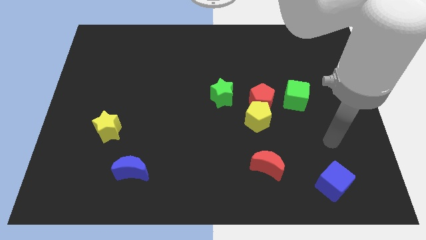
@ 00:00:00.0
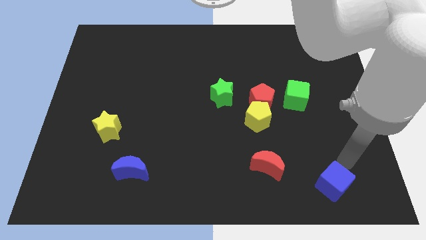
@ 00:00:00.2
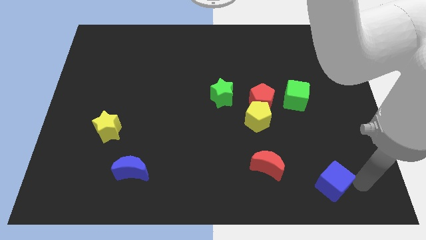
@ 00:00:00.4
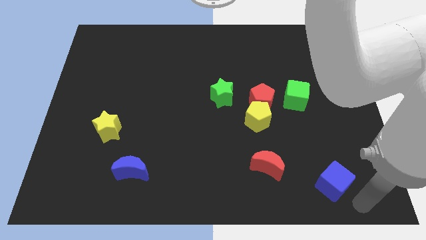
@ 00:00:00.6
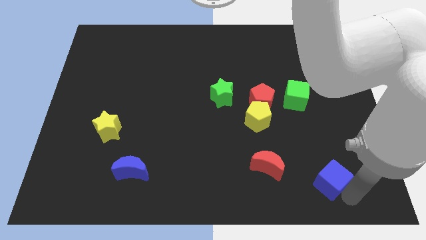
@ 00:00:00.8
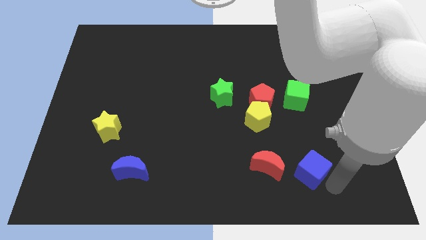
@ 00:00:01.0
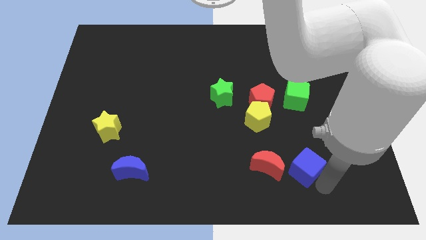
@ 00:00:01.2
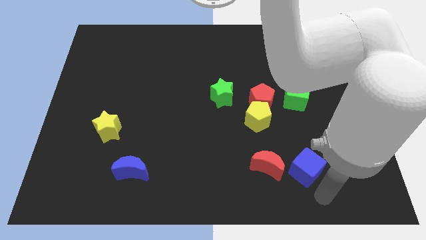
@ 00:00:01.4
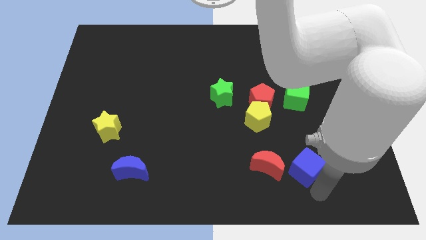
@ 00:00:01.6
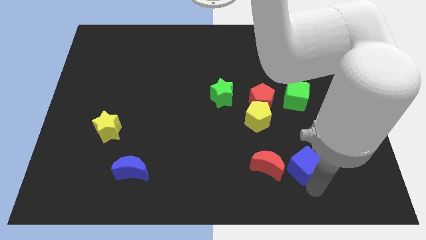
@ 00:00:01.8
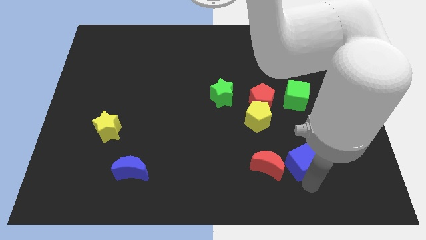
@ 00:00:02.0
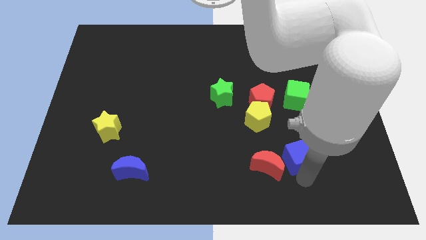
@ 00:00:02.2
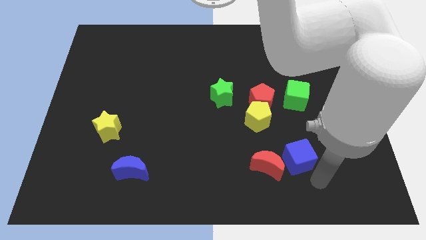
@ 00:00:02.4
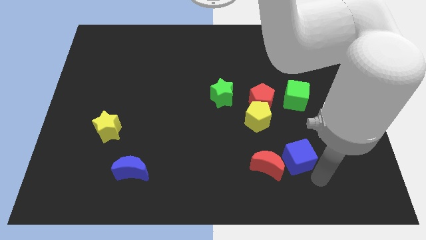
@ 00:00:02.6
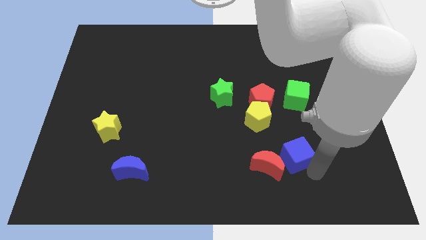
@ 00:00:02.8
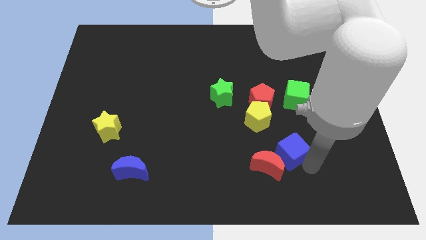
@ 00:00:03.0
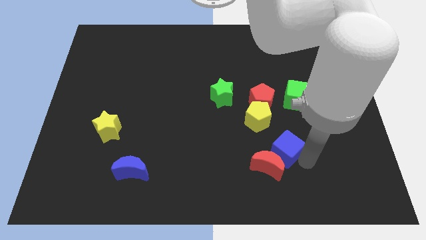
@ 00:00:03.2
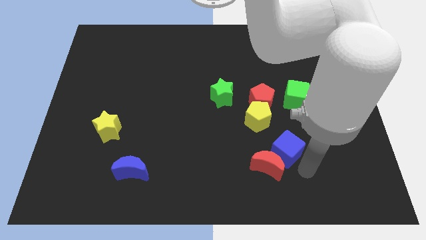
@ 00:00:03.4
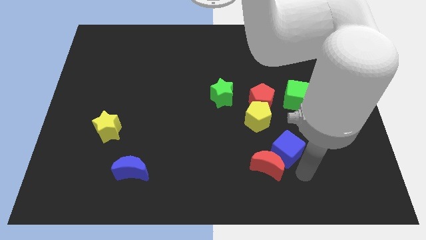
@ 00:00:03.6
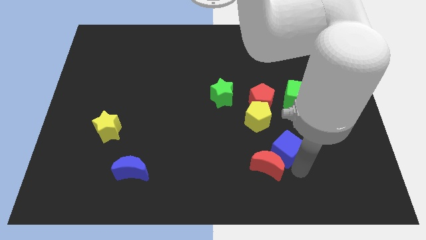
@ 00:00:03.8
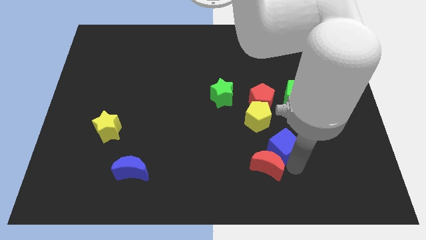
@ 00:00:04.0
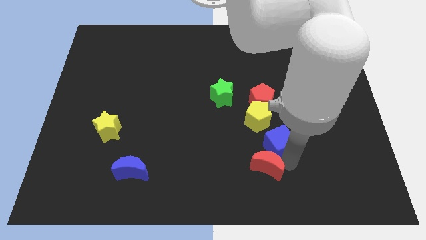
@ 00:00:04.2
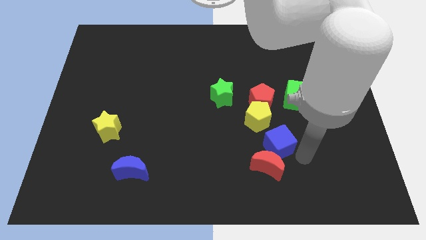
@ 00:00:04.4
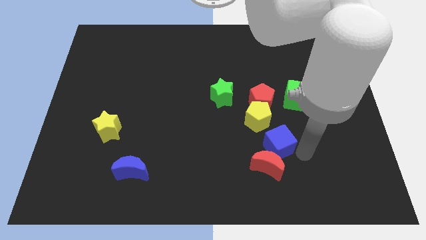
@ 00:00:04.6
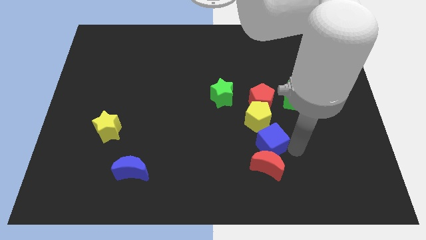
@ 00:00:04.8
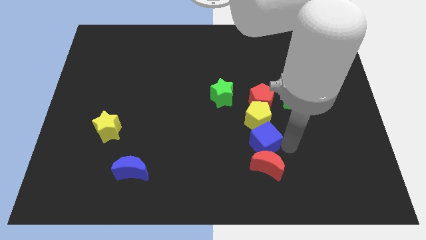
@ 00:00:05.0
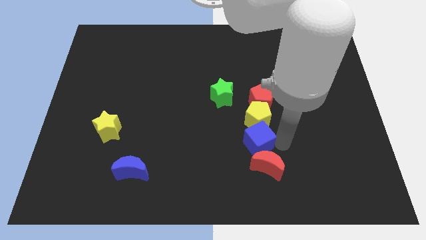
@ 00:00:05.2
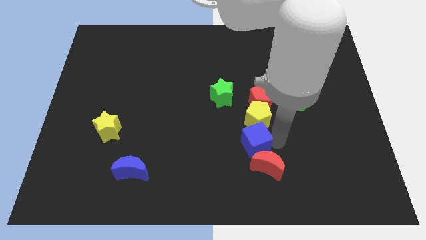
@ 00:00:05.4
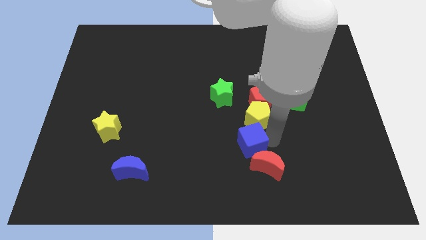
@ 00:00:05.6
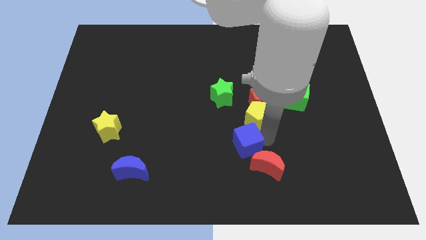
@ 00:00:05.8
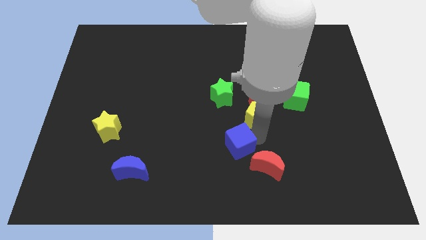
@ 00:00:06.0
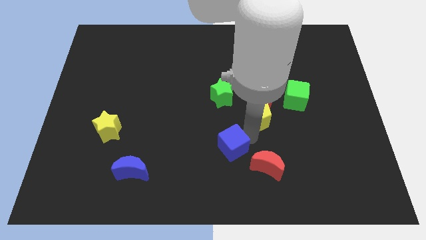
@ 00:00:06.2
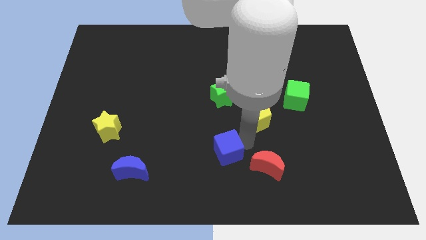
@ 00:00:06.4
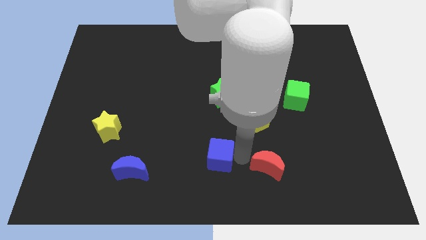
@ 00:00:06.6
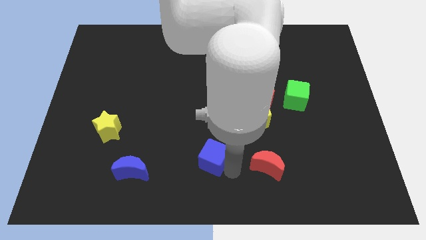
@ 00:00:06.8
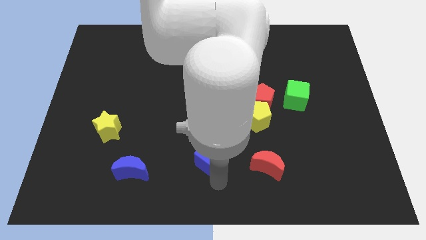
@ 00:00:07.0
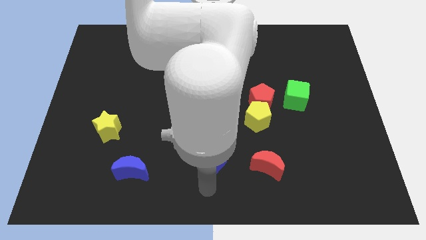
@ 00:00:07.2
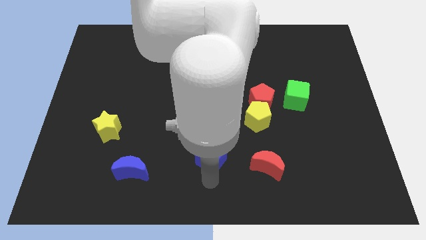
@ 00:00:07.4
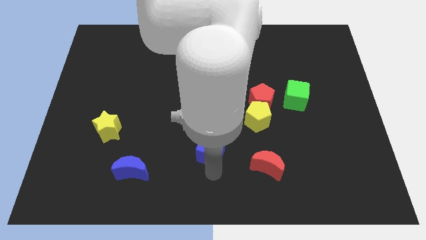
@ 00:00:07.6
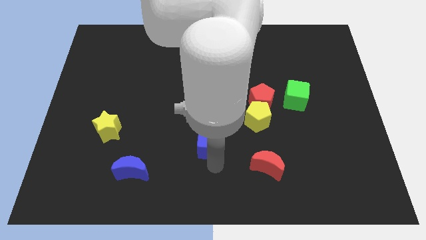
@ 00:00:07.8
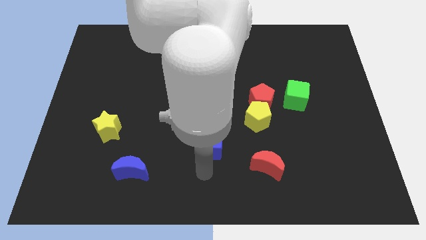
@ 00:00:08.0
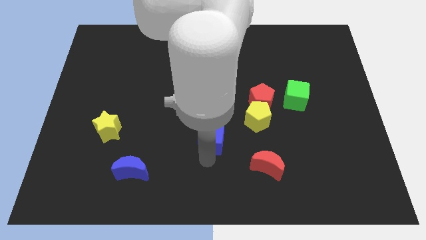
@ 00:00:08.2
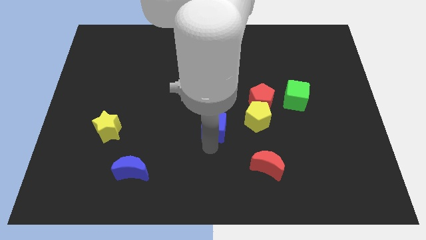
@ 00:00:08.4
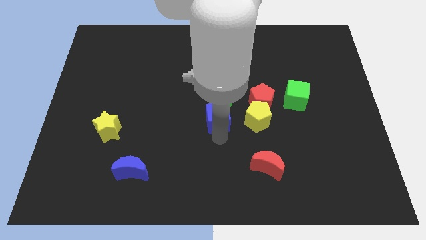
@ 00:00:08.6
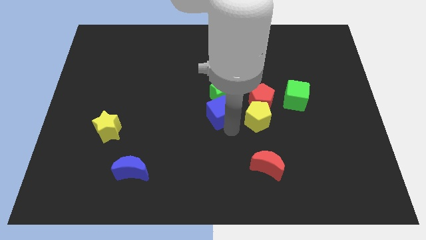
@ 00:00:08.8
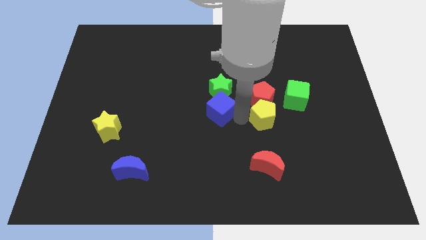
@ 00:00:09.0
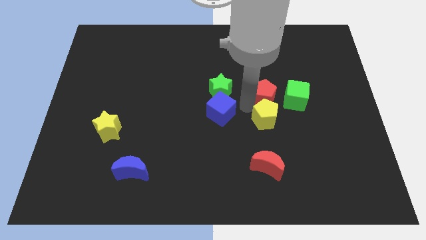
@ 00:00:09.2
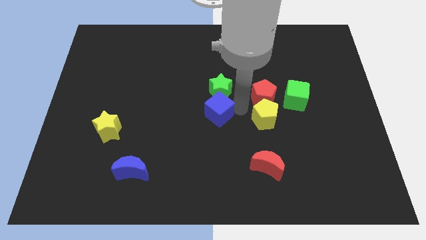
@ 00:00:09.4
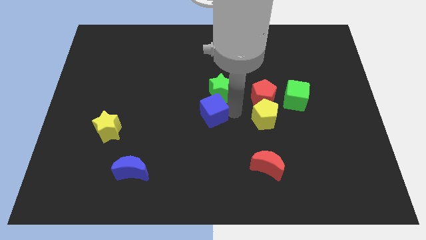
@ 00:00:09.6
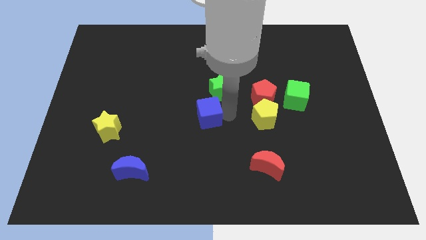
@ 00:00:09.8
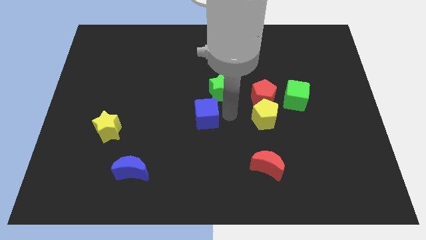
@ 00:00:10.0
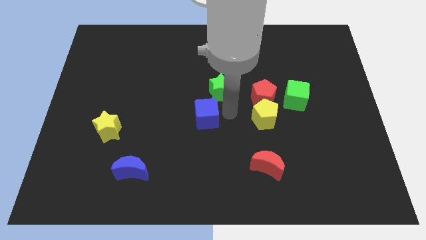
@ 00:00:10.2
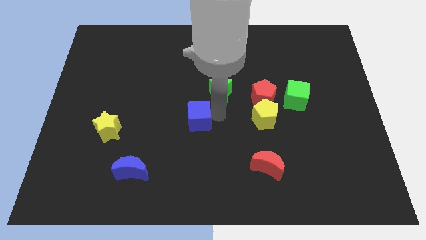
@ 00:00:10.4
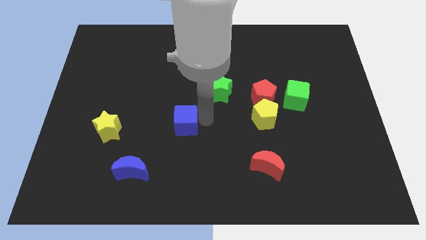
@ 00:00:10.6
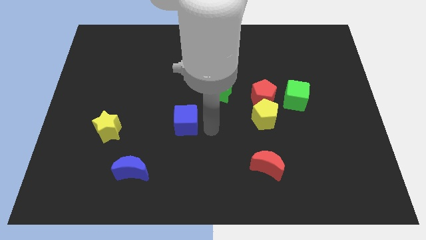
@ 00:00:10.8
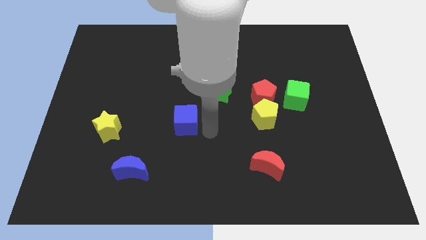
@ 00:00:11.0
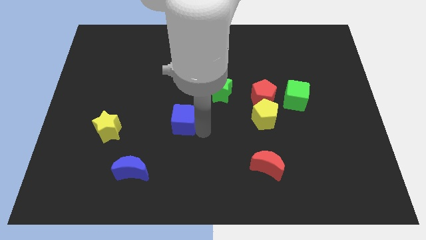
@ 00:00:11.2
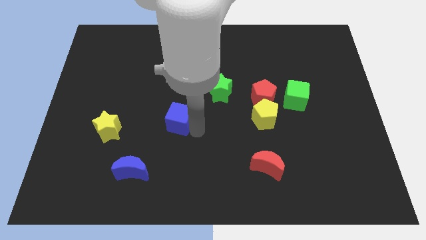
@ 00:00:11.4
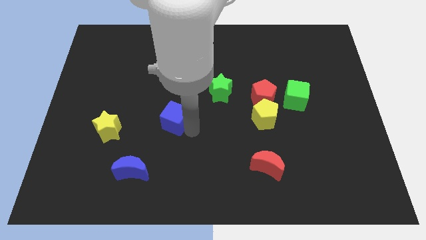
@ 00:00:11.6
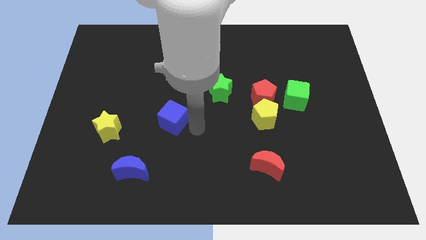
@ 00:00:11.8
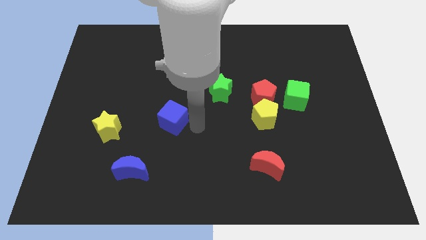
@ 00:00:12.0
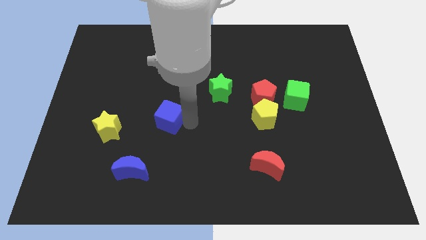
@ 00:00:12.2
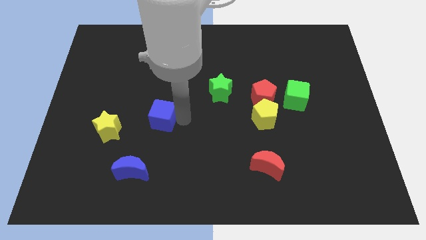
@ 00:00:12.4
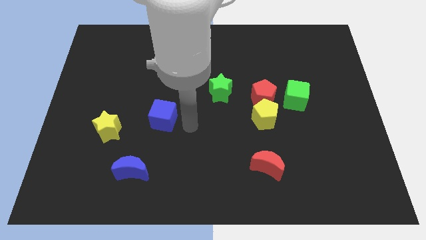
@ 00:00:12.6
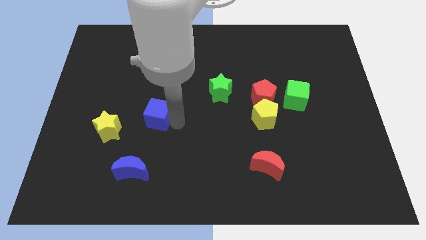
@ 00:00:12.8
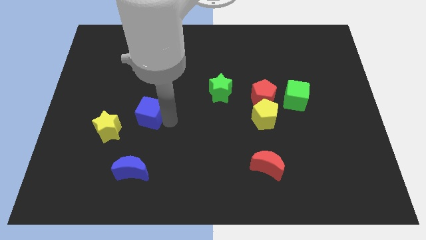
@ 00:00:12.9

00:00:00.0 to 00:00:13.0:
slide the blue cube to the top right side of the yellow star
